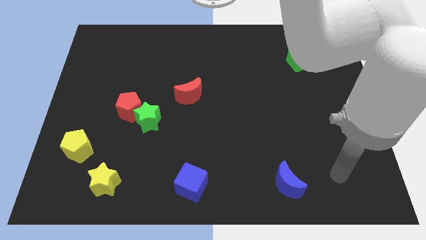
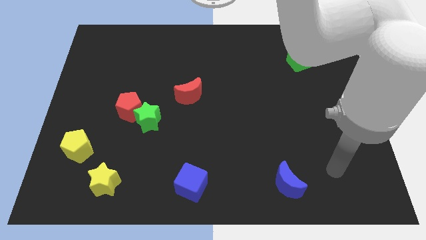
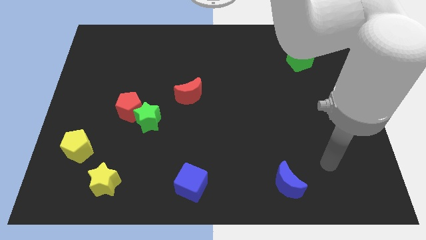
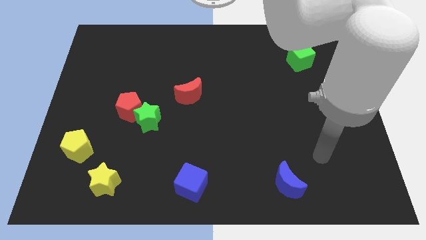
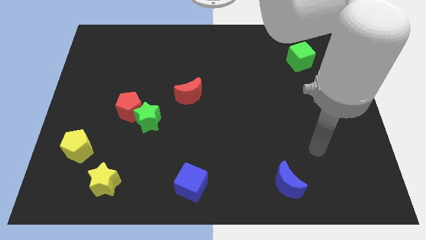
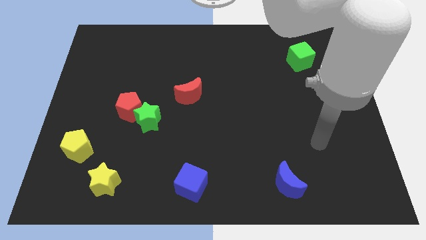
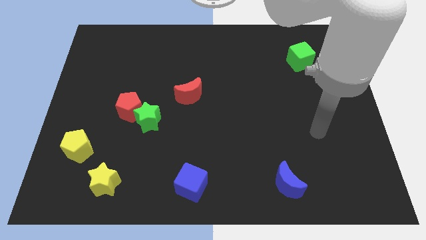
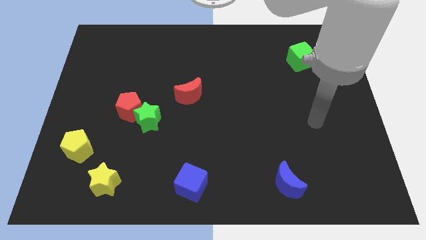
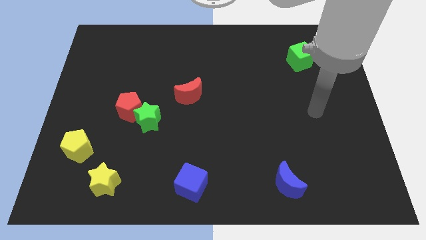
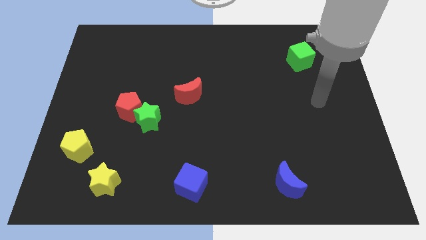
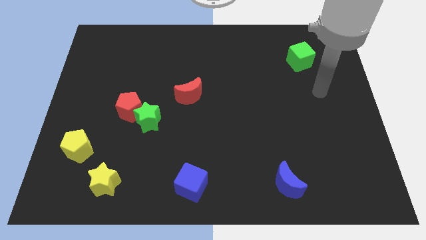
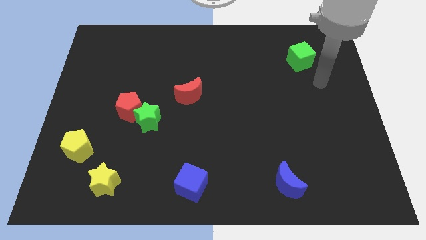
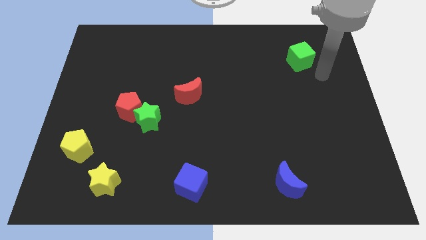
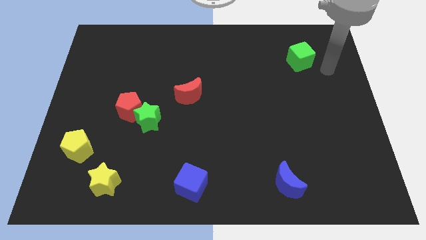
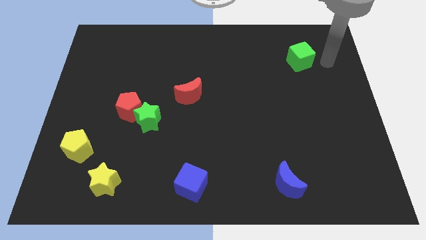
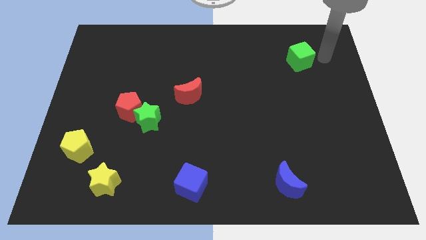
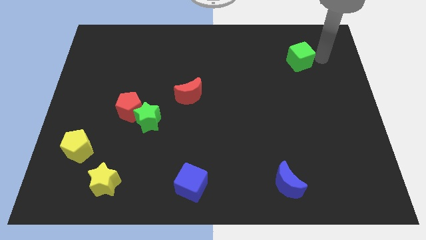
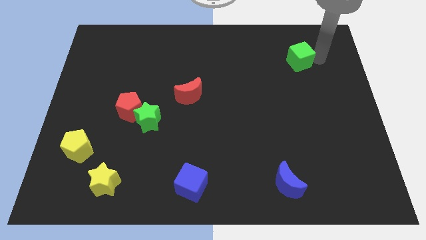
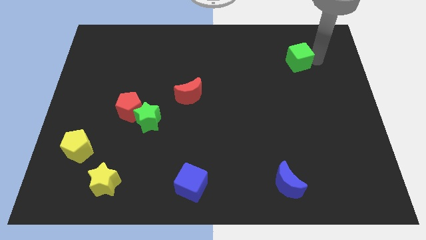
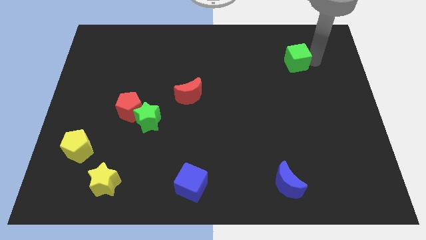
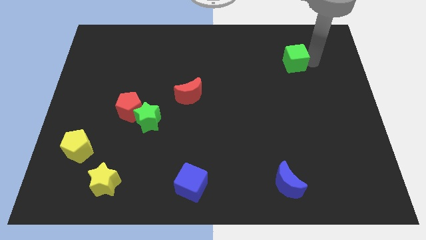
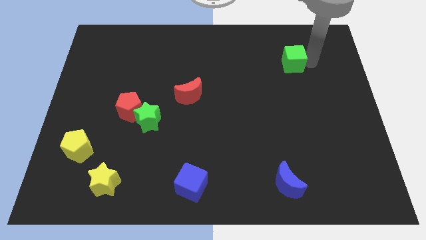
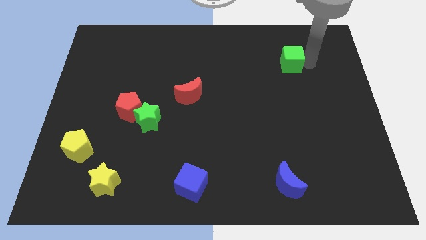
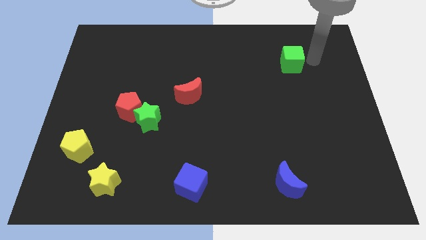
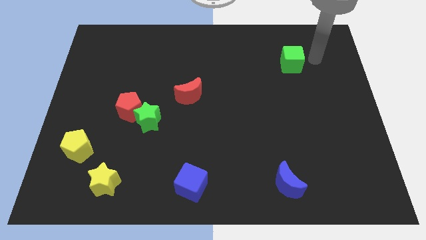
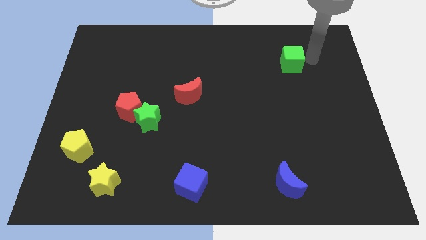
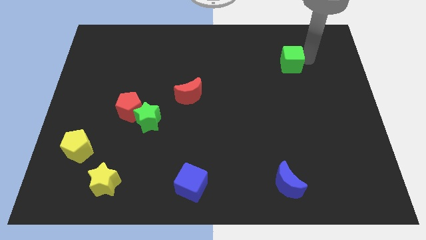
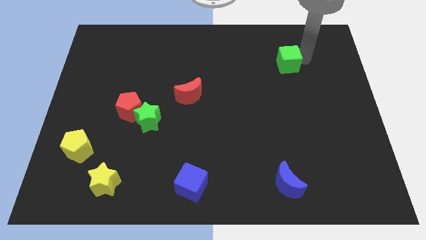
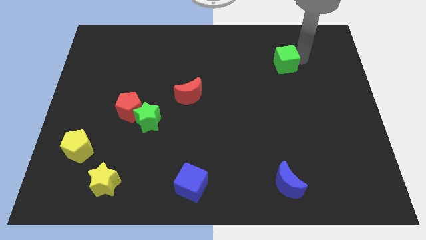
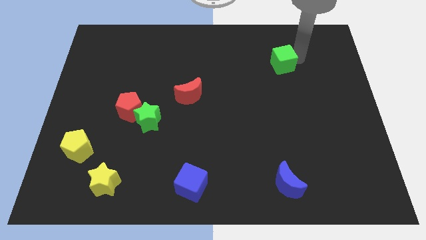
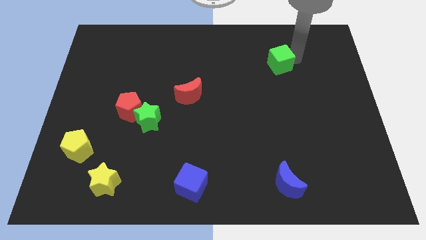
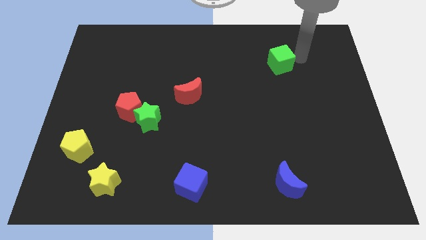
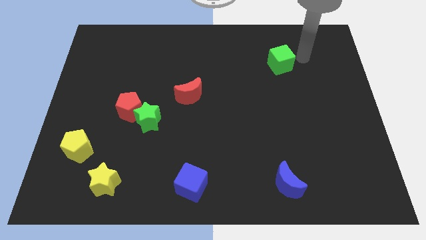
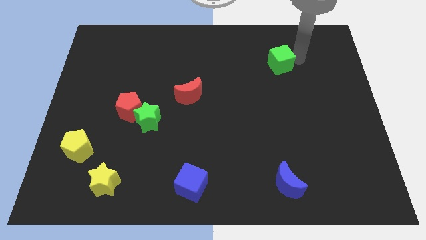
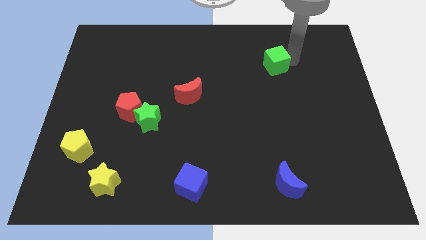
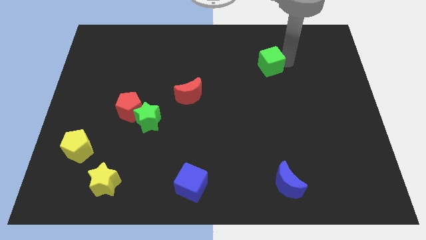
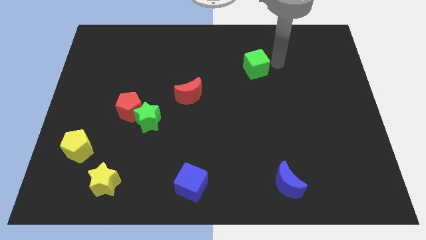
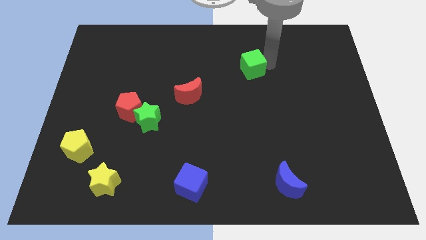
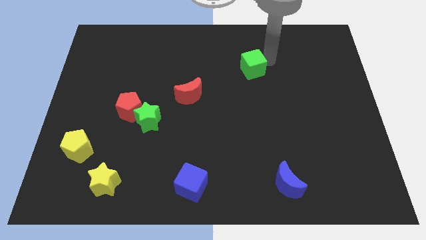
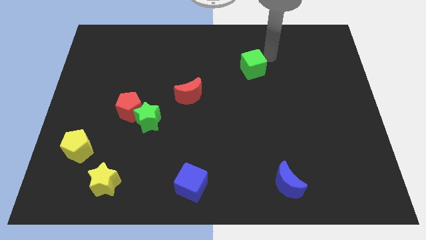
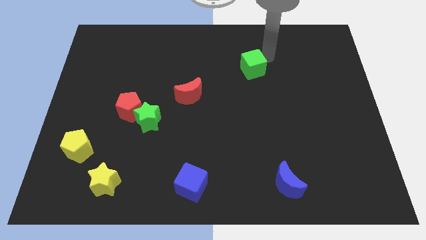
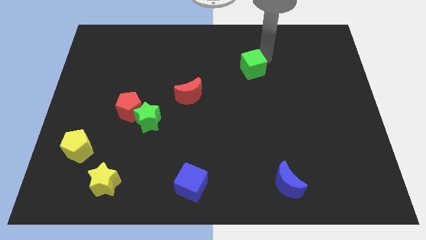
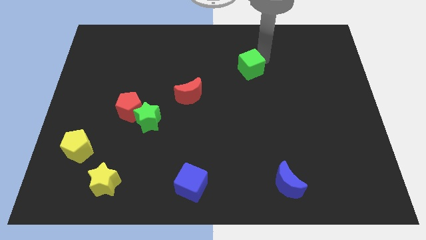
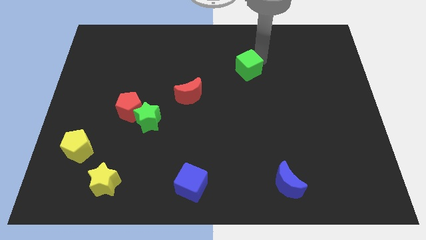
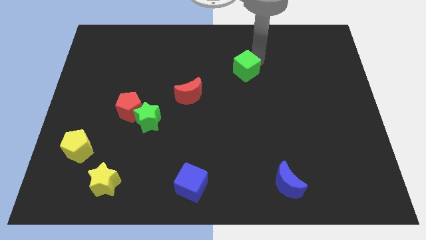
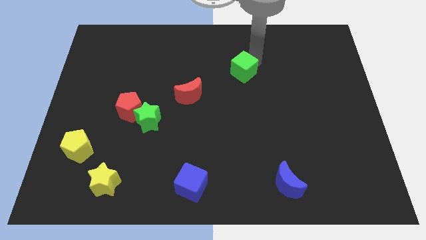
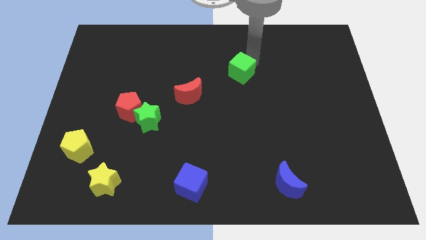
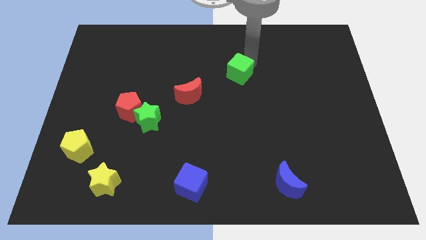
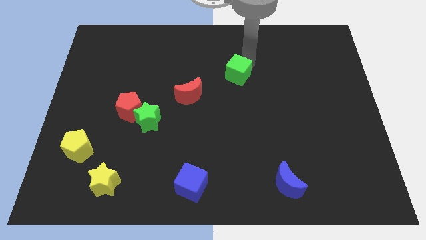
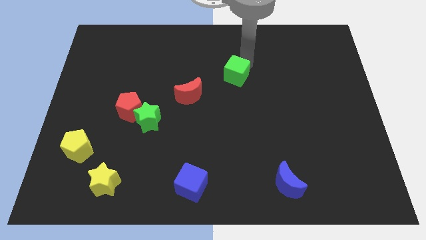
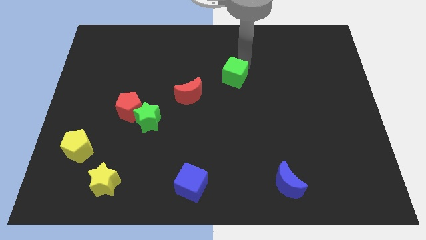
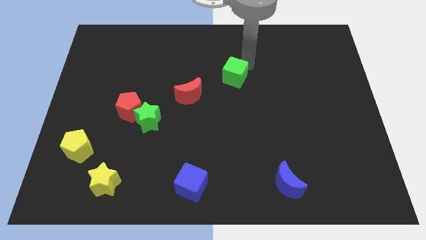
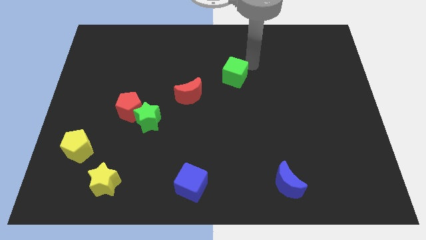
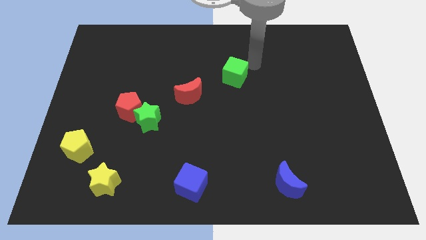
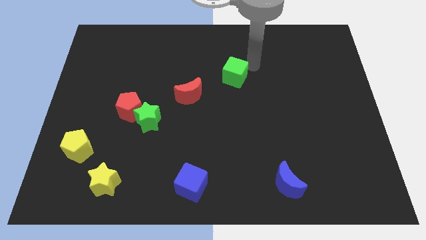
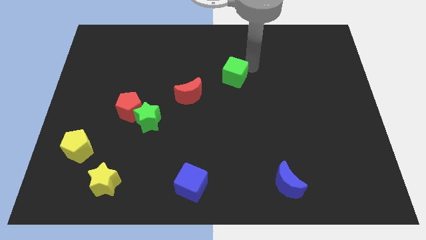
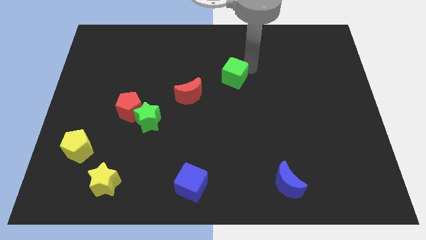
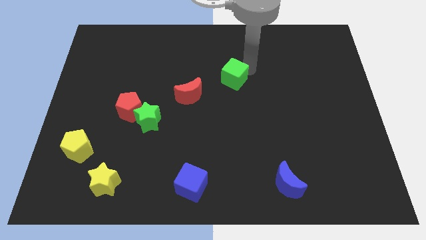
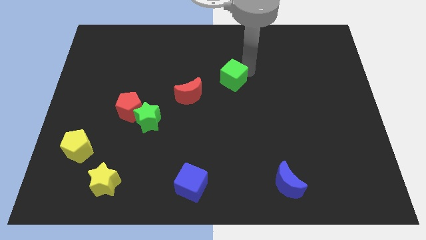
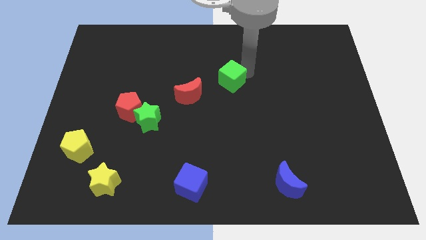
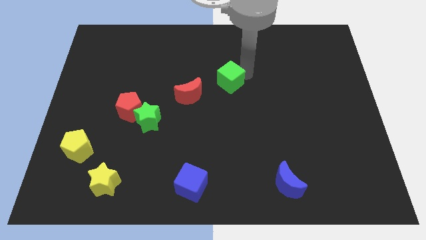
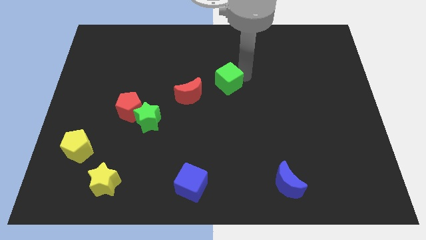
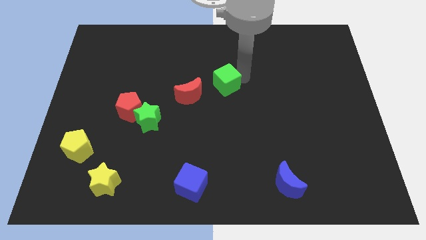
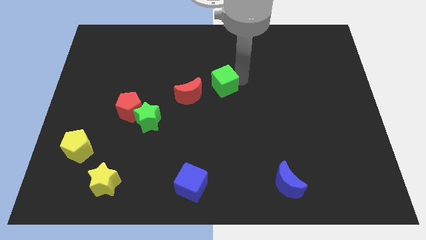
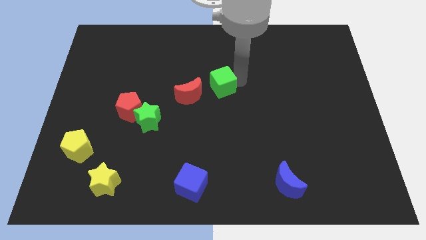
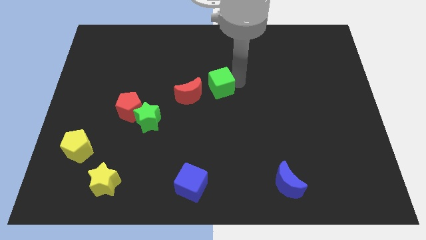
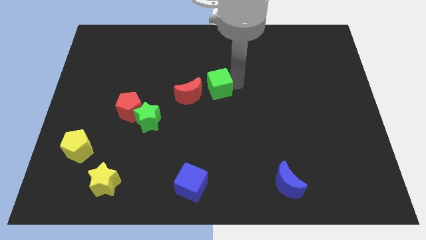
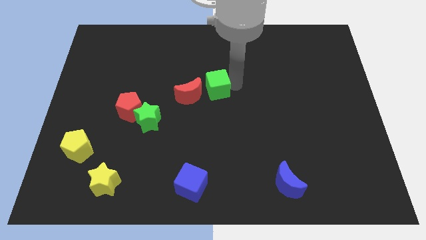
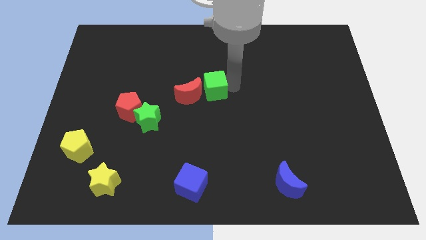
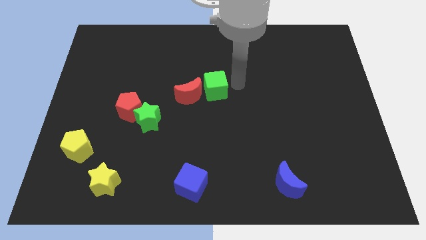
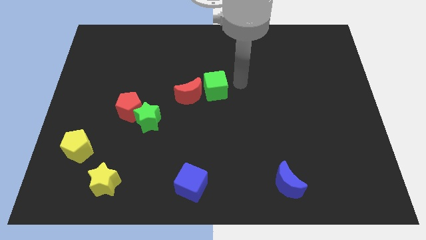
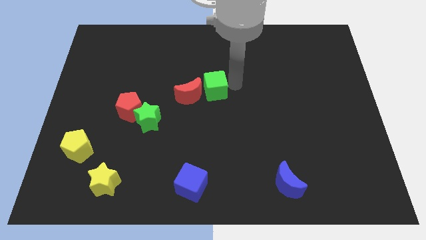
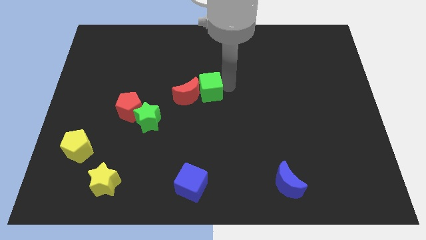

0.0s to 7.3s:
put the green cube next to the red moon
